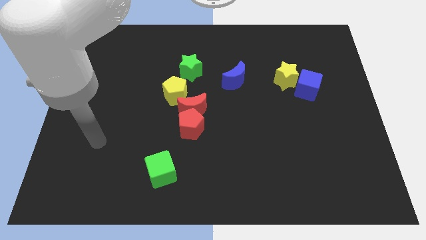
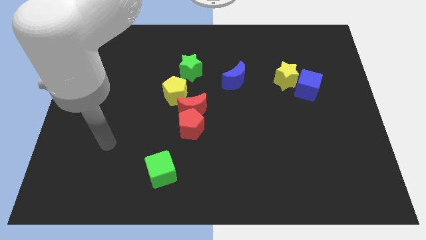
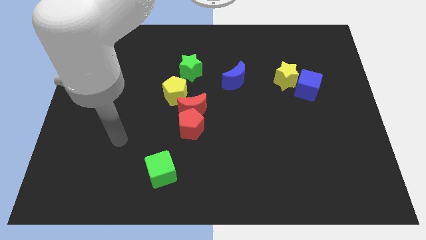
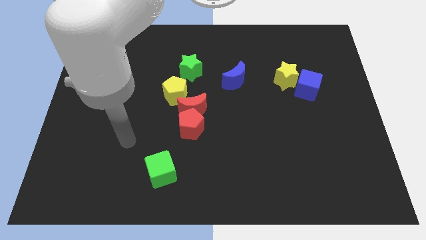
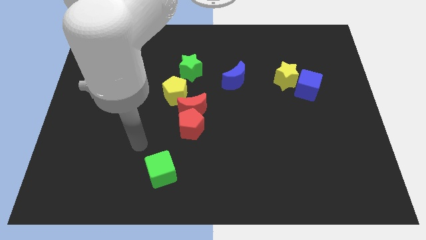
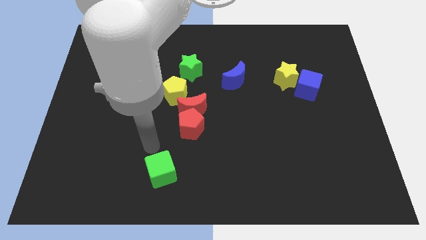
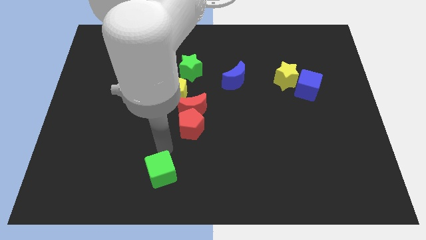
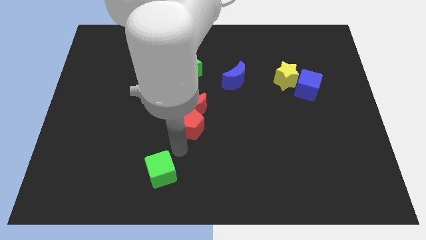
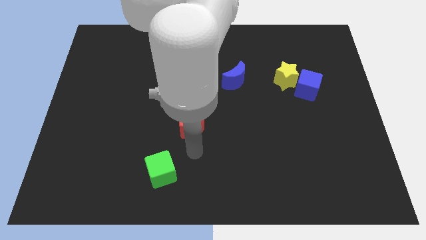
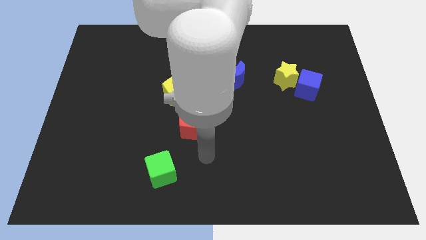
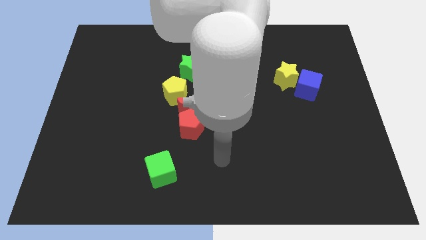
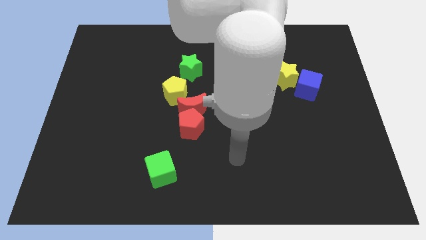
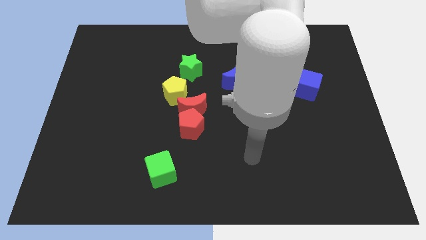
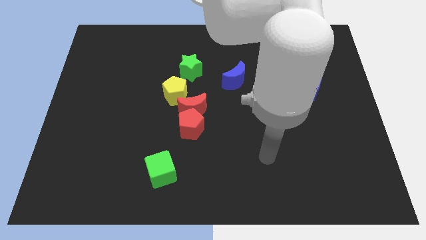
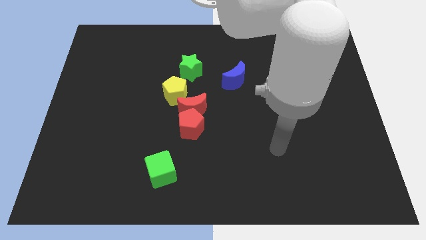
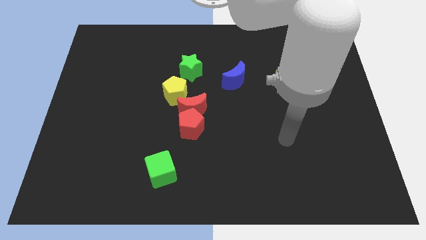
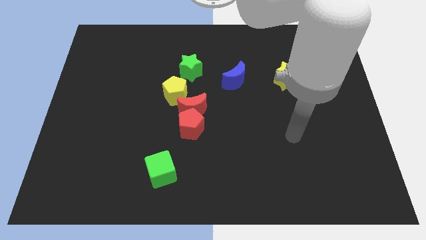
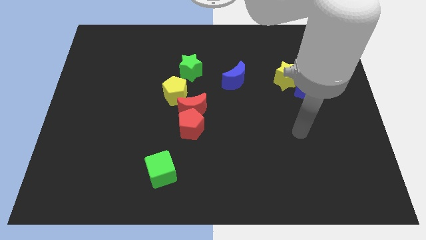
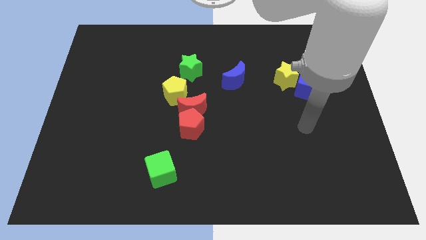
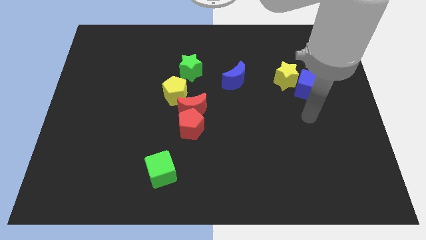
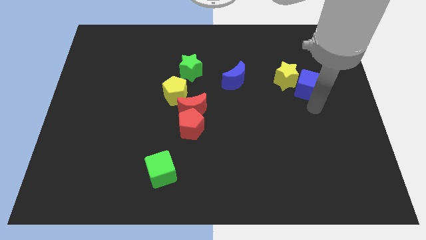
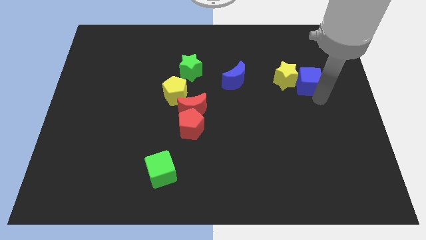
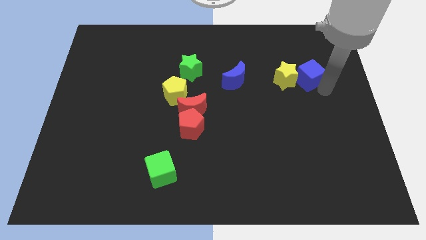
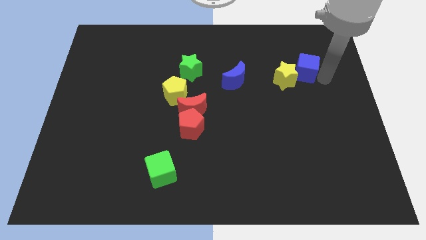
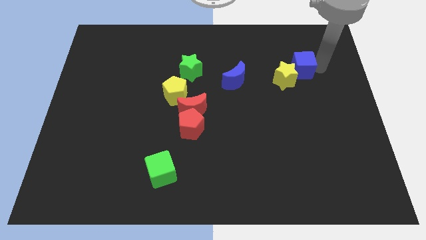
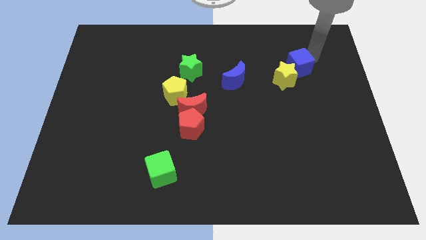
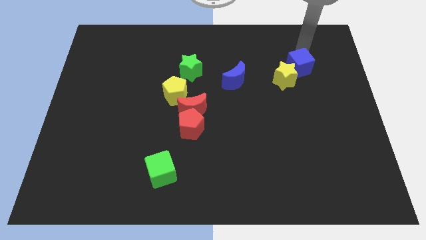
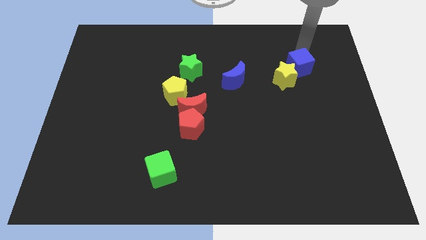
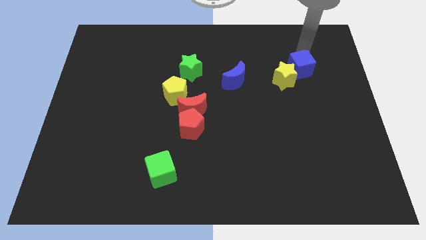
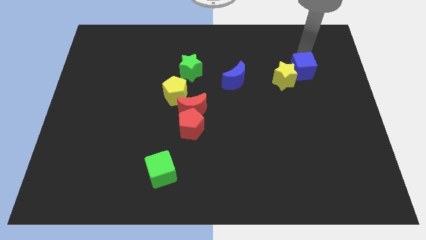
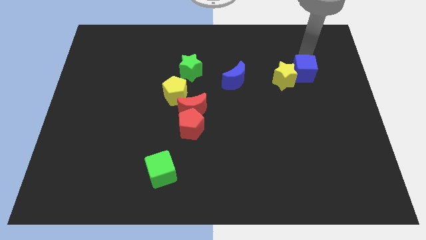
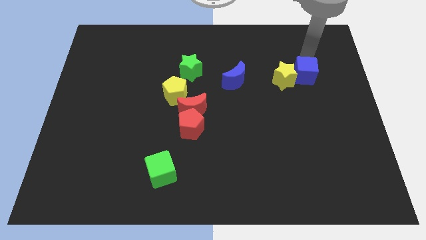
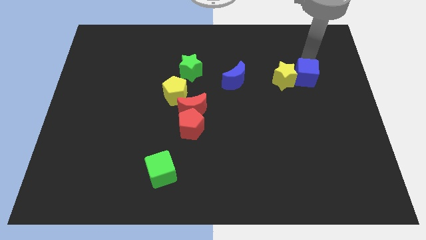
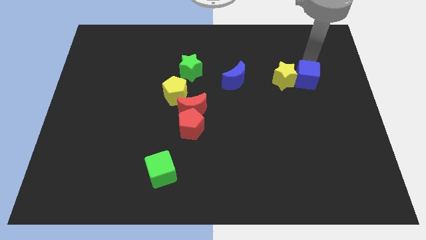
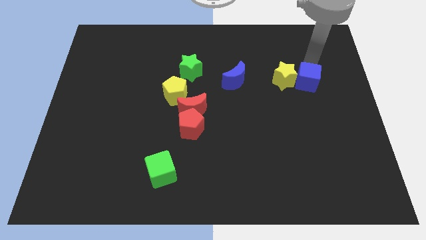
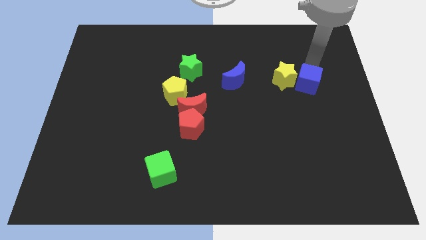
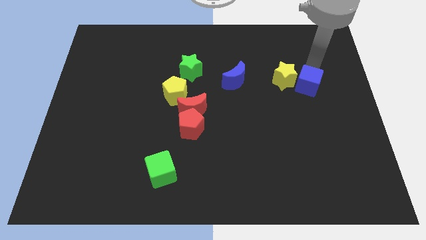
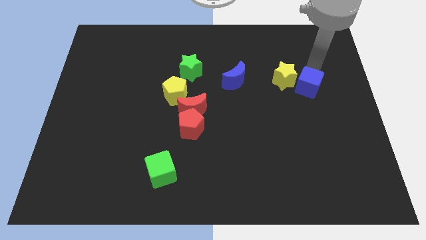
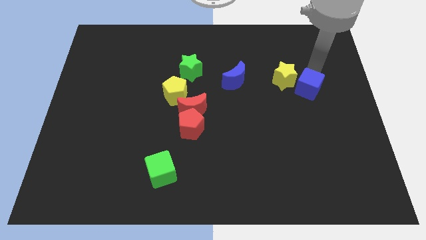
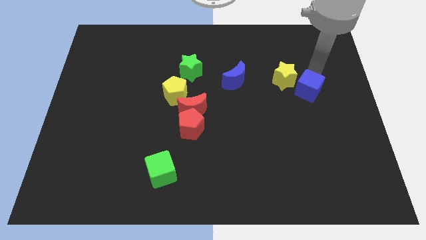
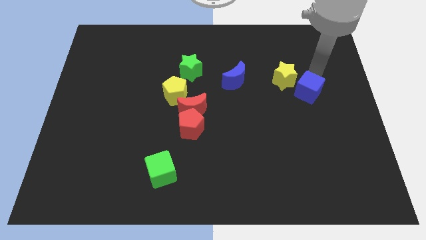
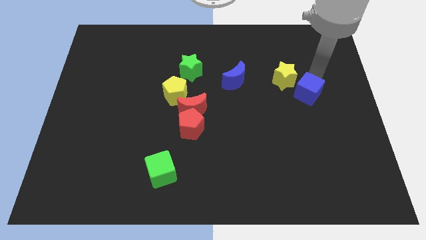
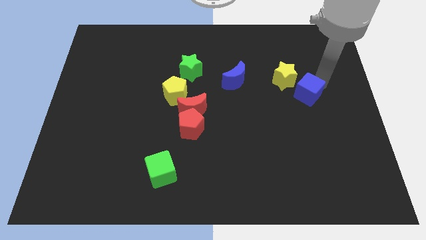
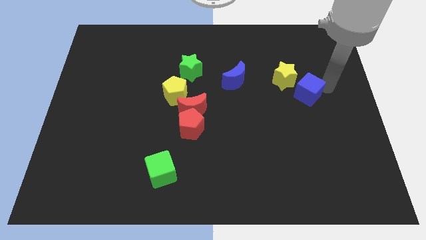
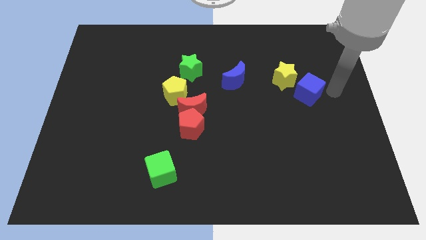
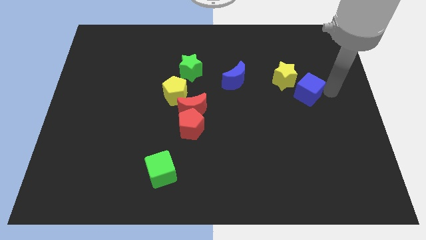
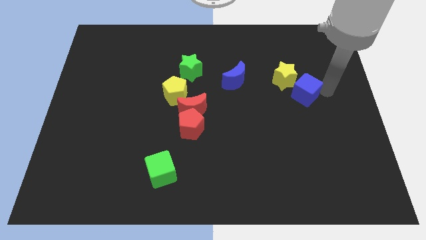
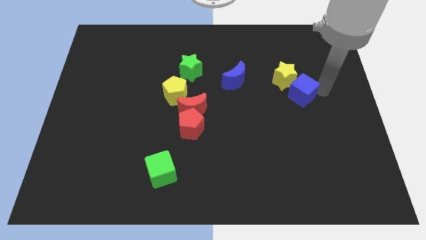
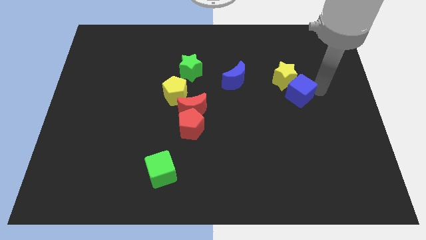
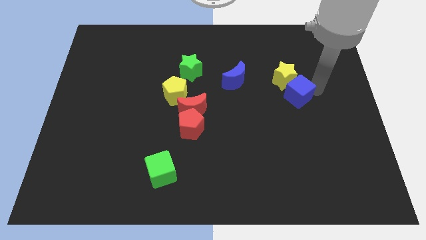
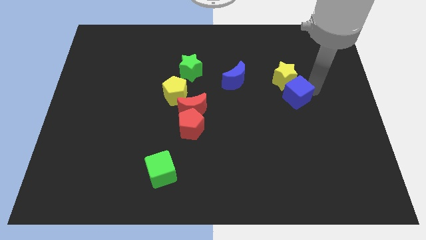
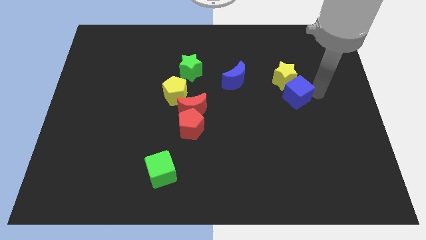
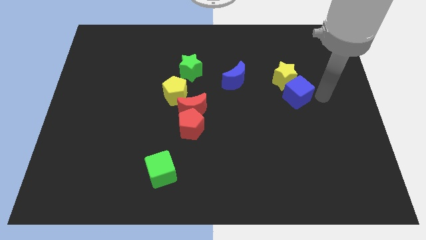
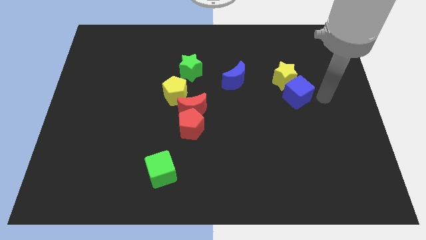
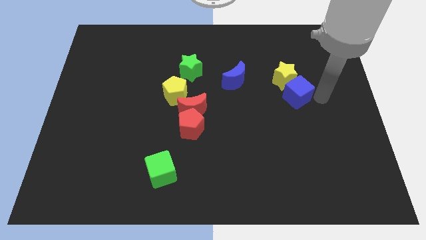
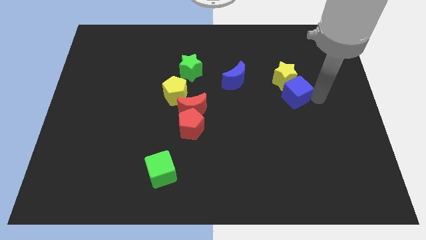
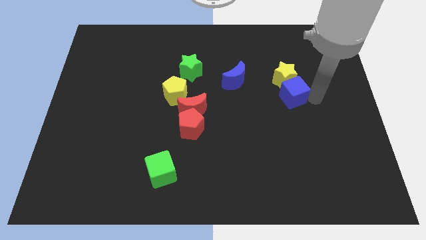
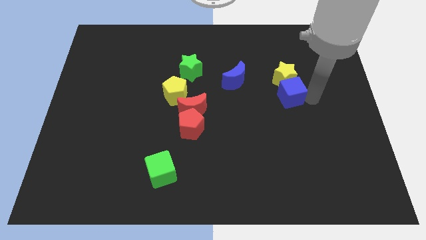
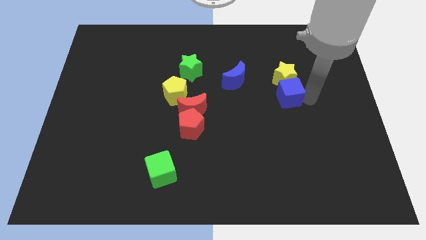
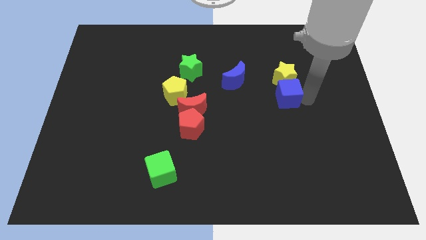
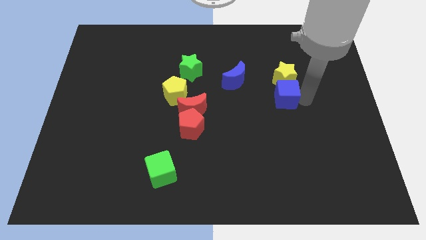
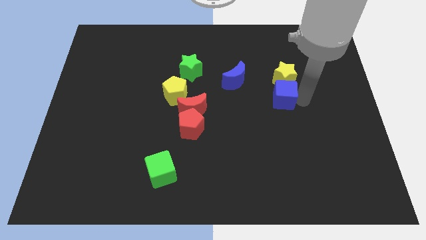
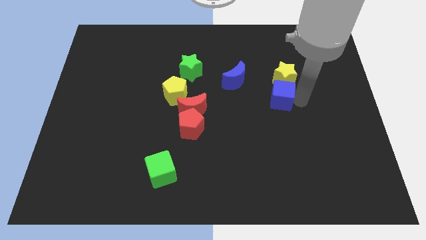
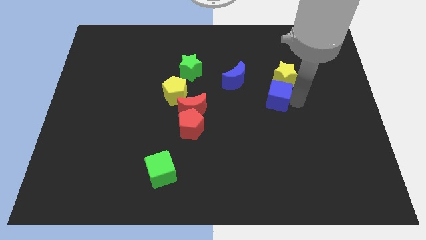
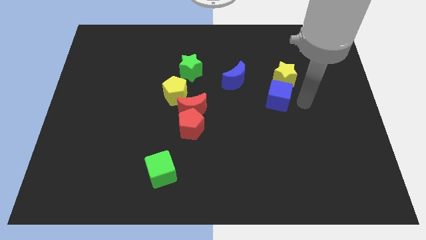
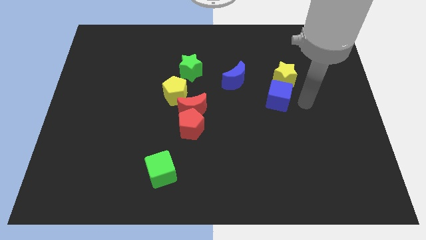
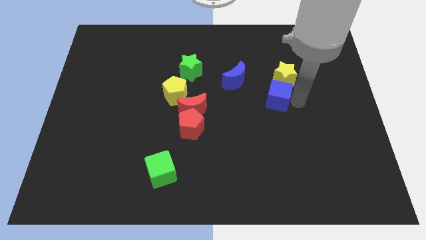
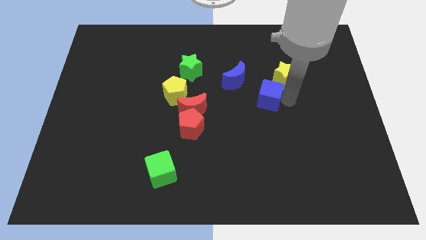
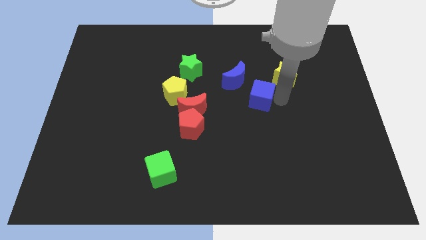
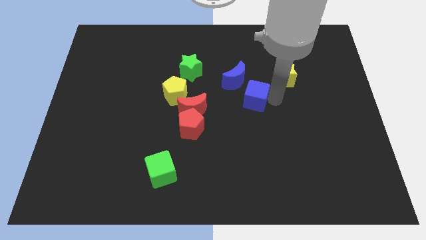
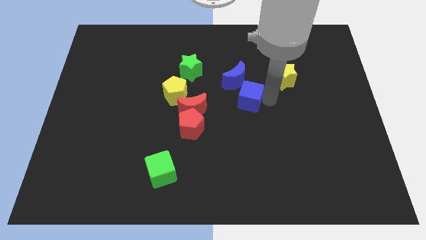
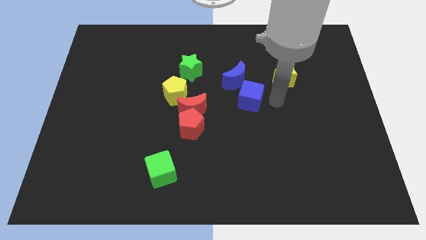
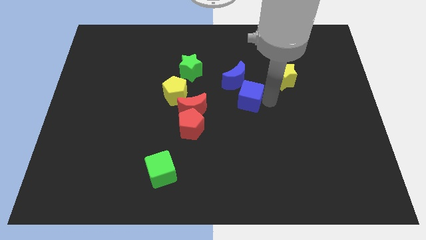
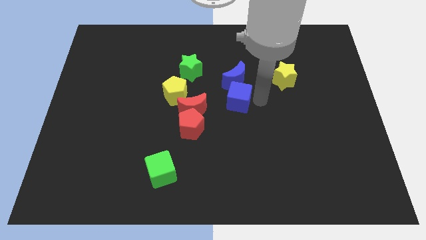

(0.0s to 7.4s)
slide the blue cube to the bottom left side of the blue moon
